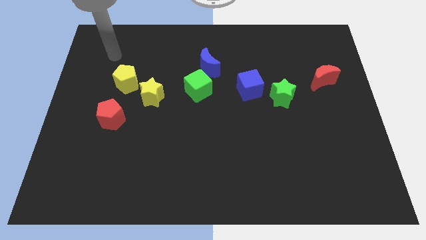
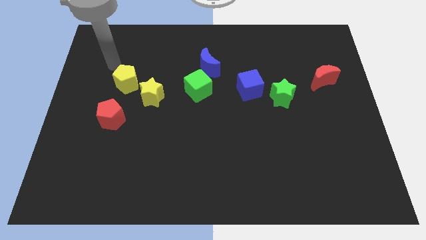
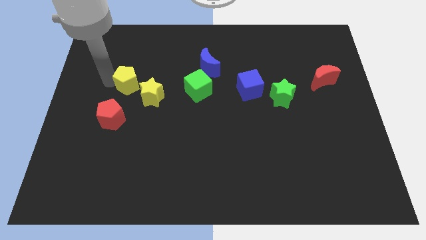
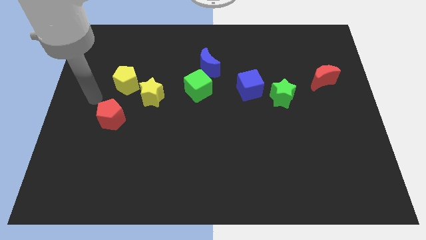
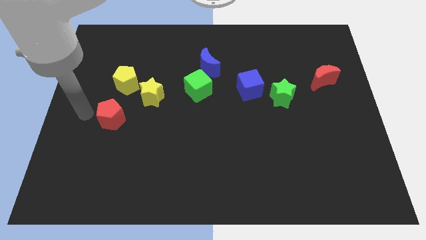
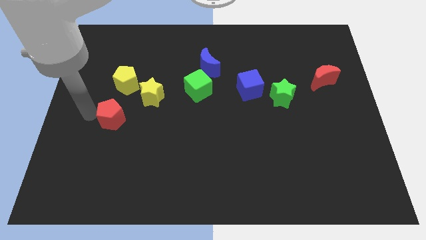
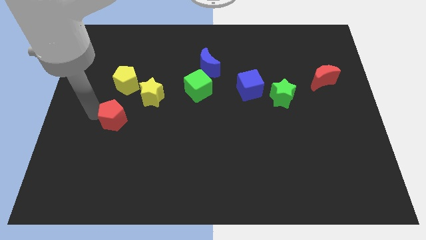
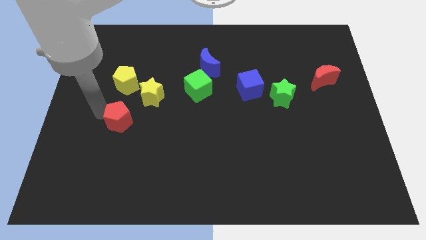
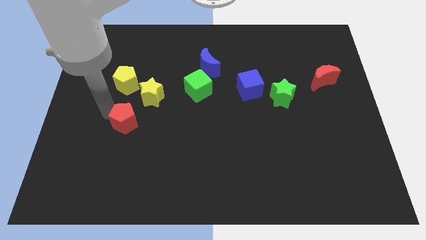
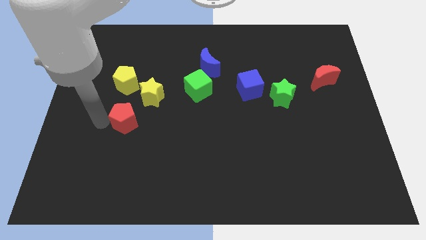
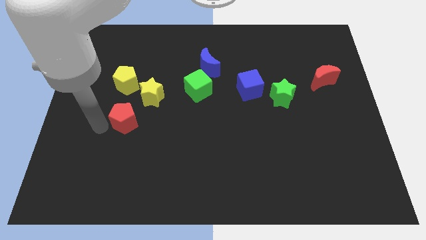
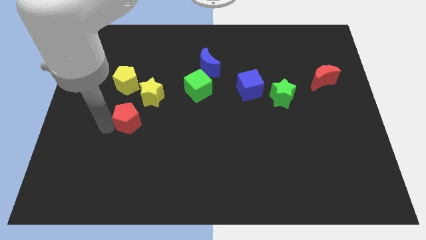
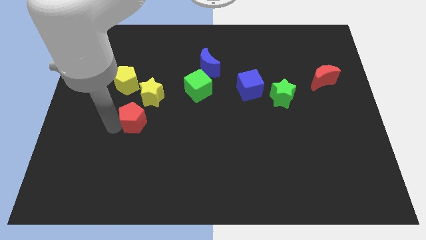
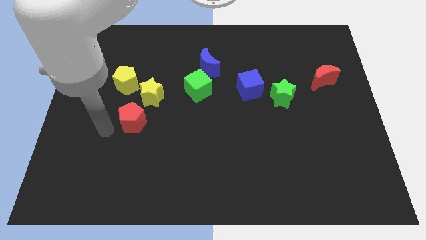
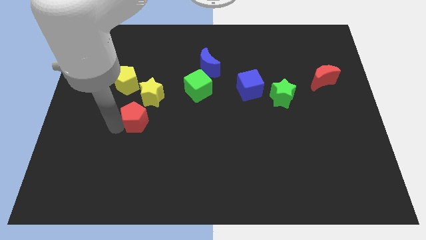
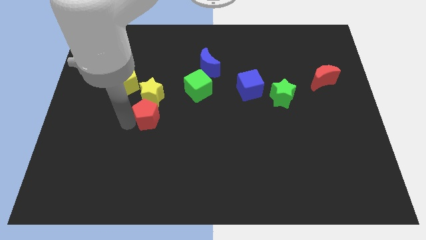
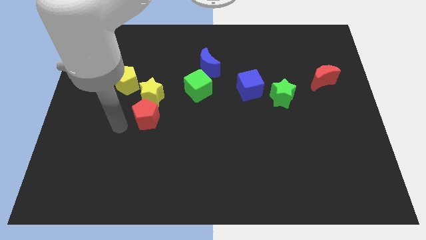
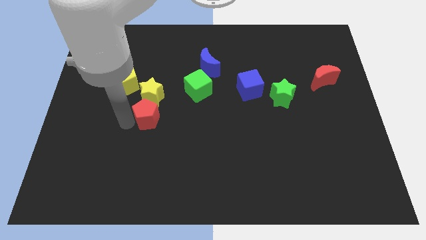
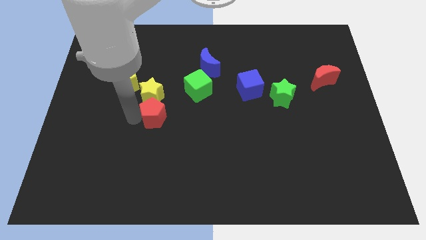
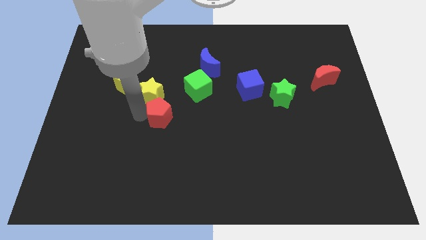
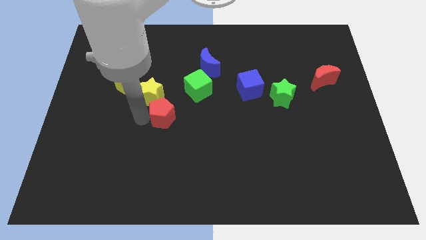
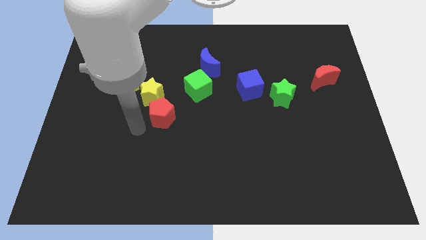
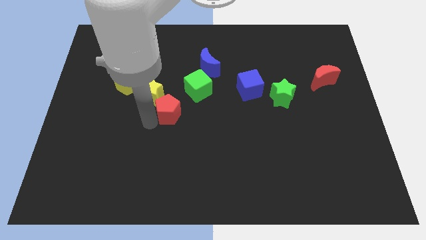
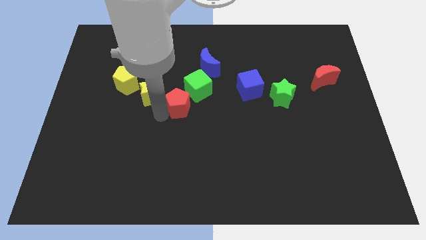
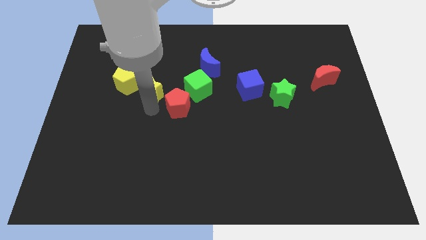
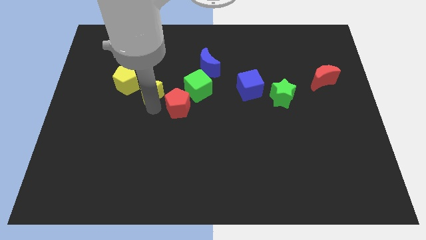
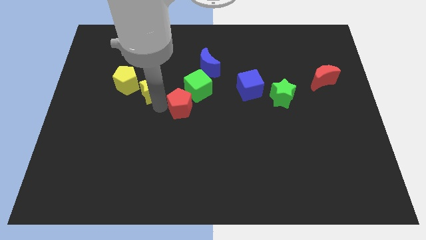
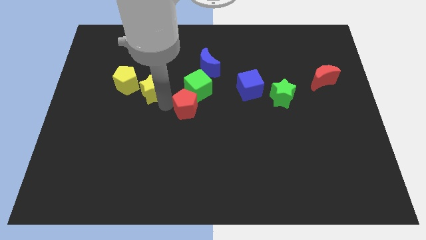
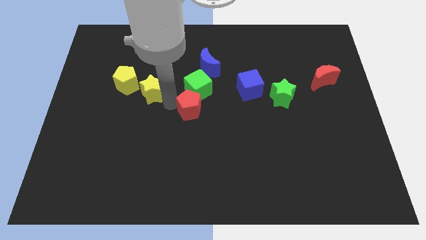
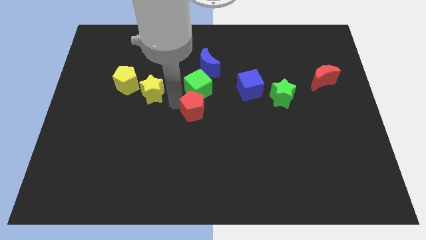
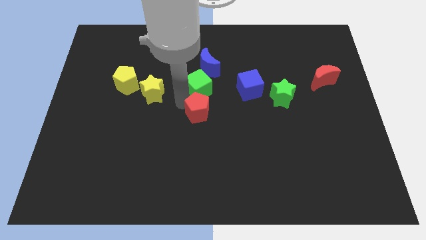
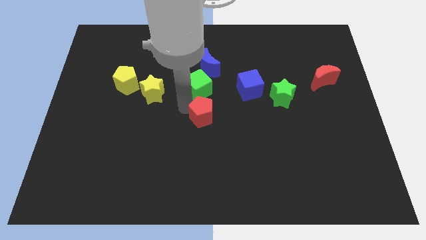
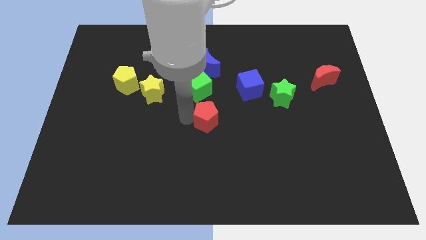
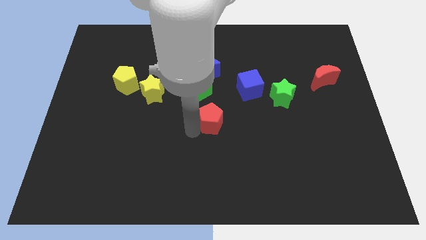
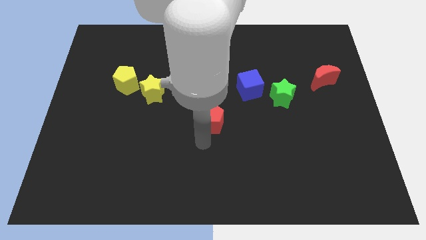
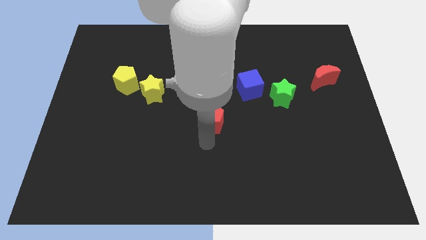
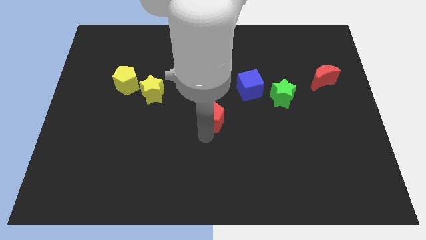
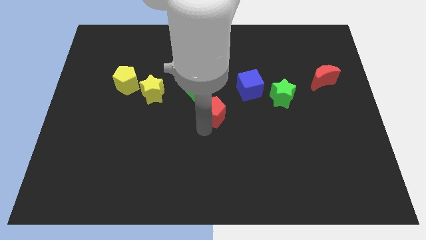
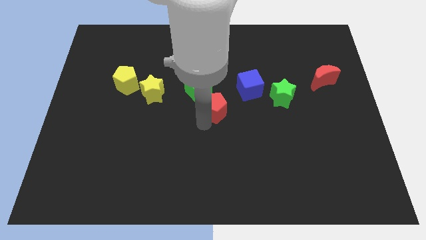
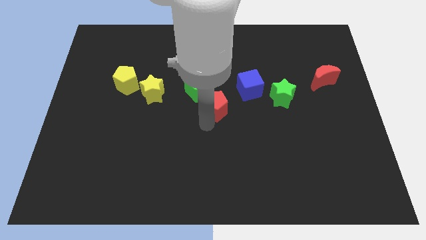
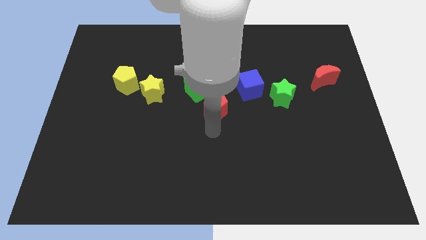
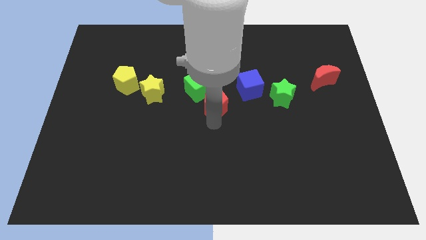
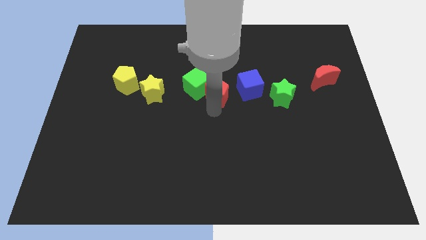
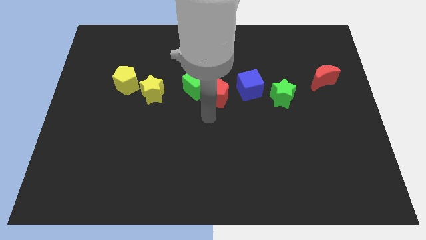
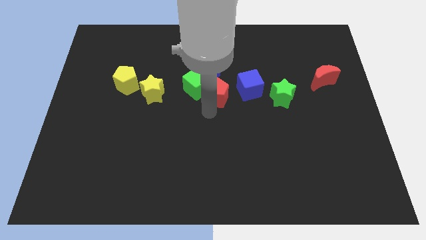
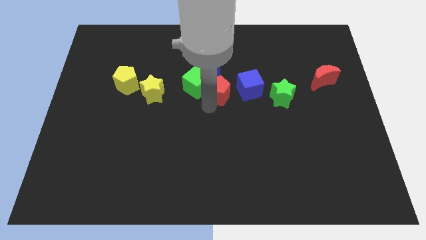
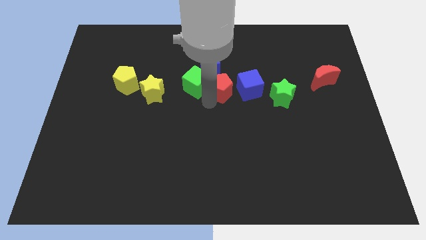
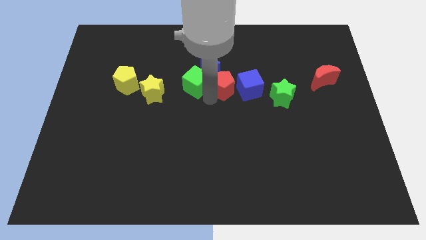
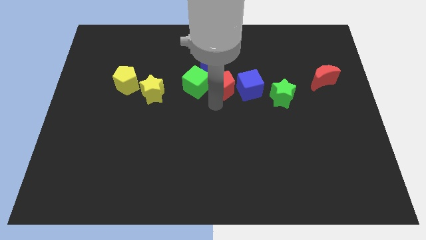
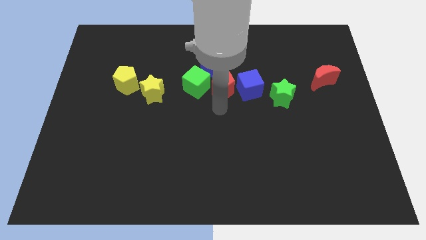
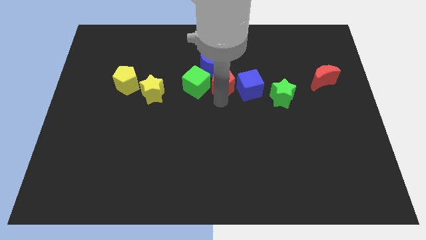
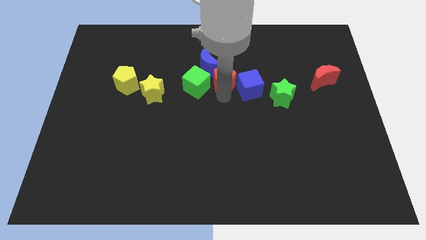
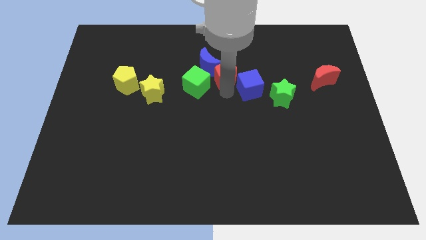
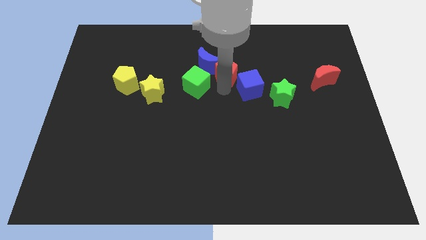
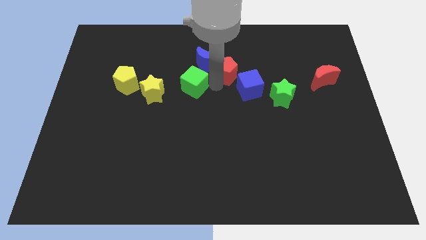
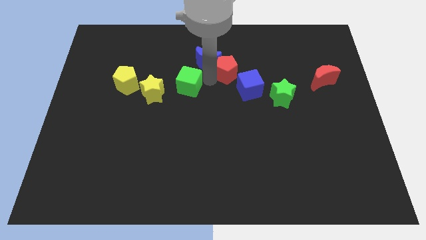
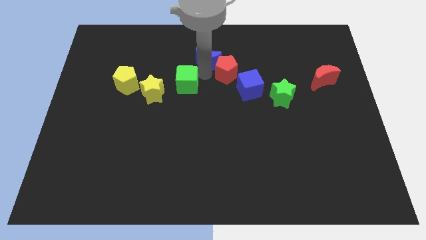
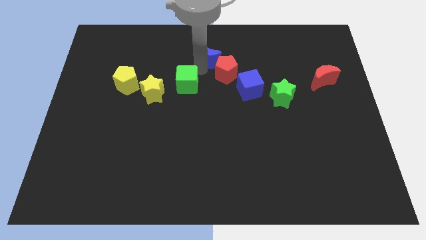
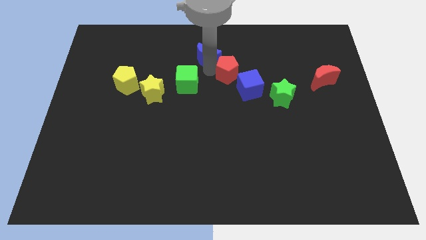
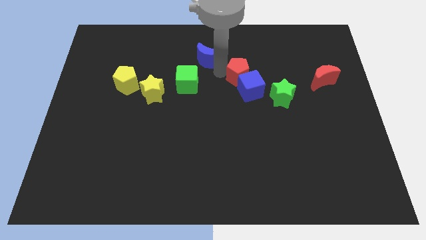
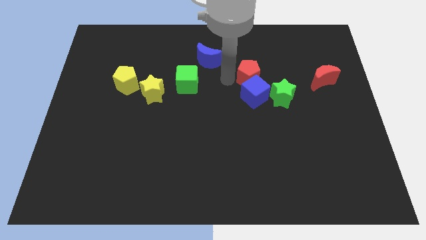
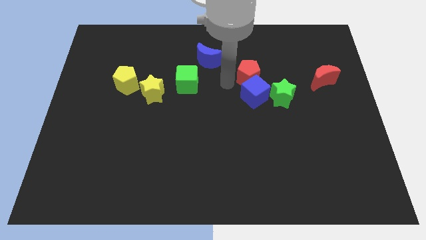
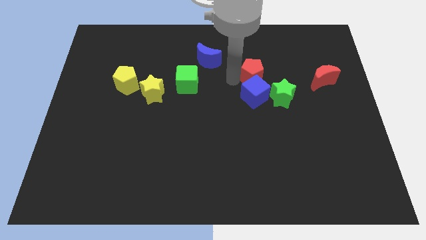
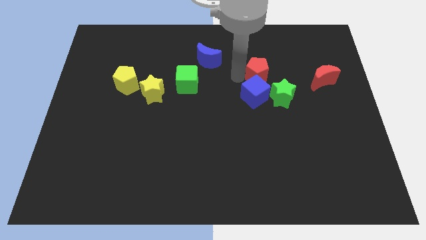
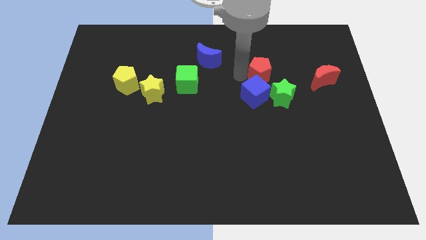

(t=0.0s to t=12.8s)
slide the red pentagon to the top of the green star
